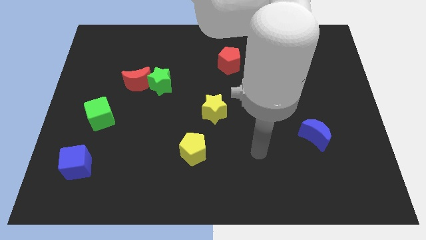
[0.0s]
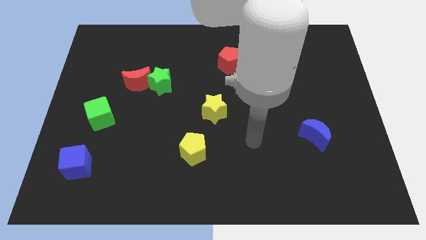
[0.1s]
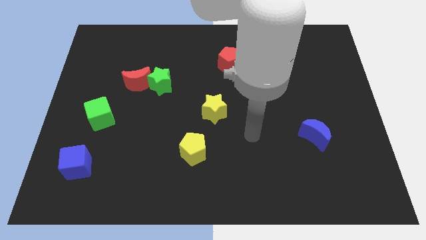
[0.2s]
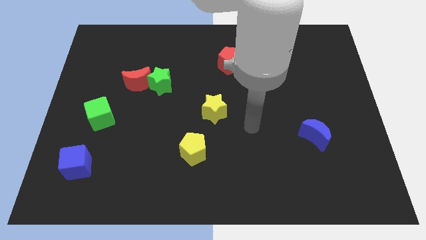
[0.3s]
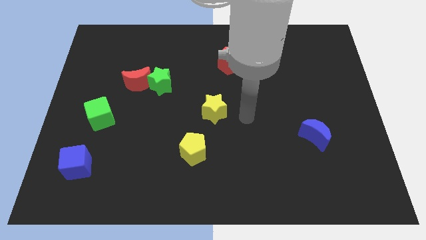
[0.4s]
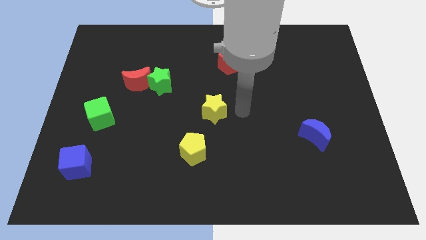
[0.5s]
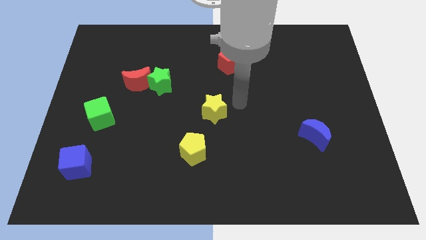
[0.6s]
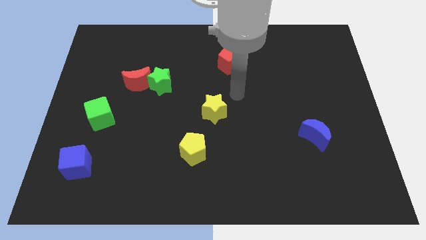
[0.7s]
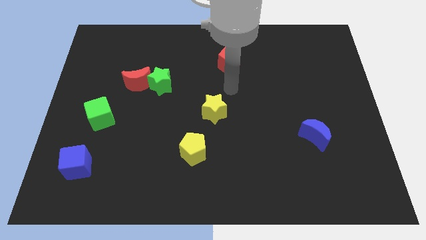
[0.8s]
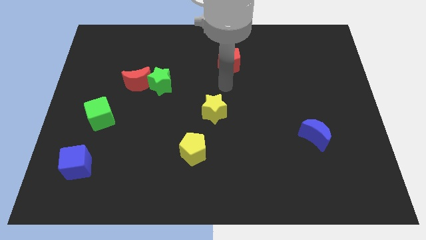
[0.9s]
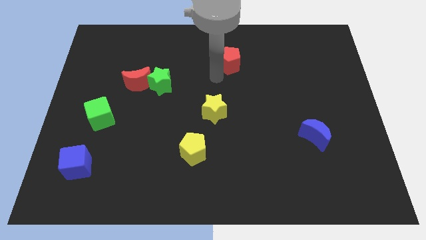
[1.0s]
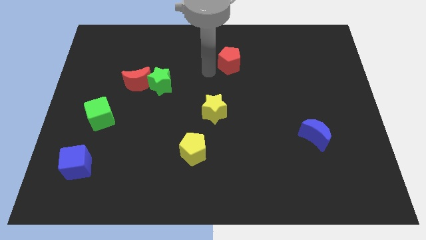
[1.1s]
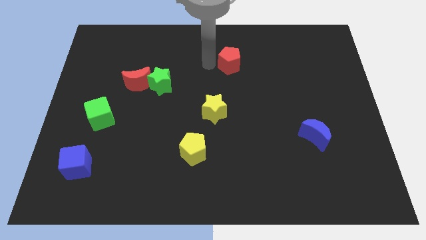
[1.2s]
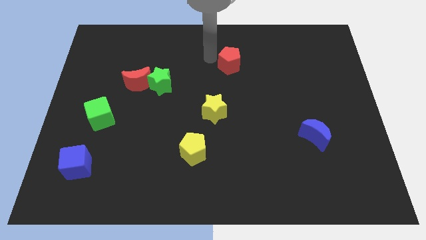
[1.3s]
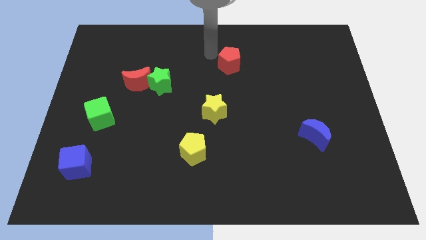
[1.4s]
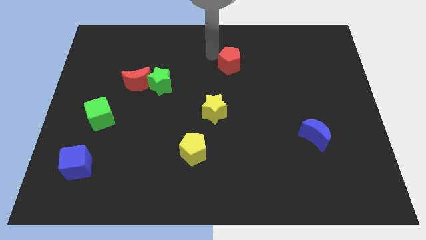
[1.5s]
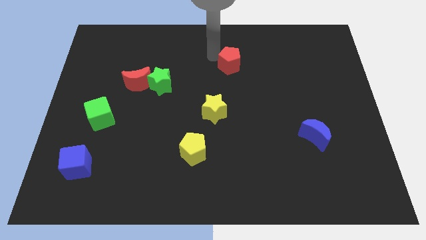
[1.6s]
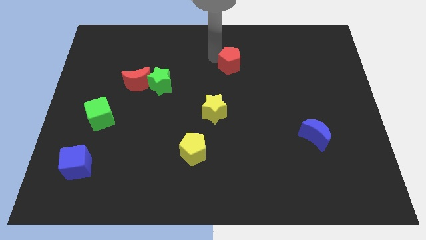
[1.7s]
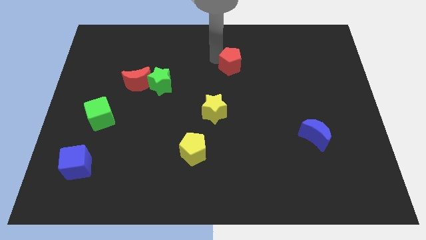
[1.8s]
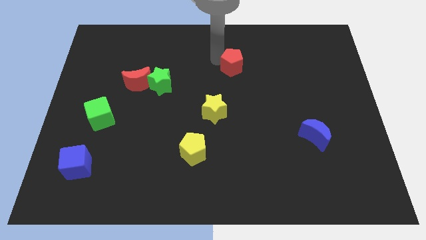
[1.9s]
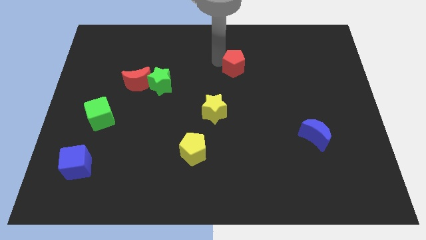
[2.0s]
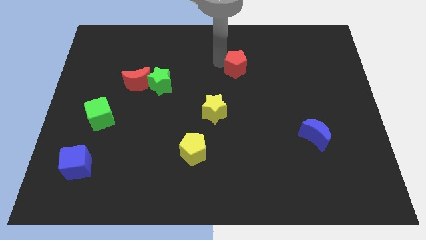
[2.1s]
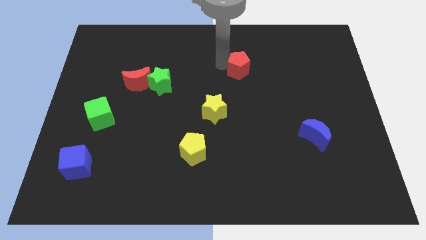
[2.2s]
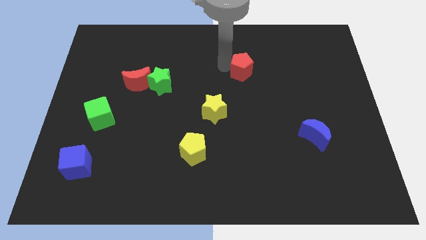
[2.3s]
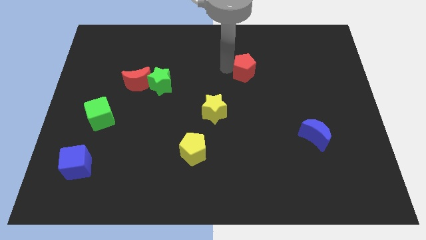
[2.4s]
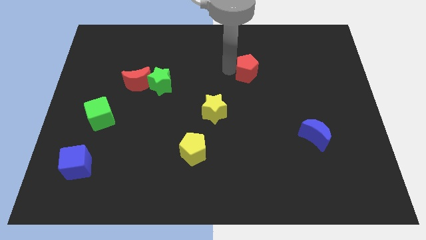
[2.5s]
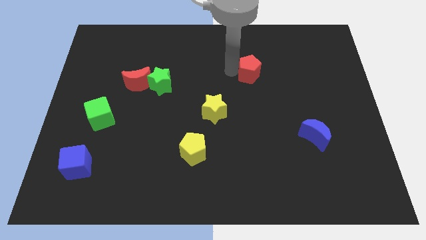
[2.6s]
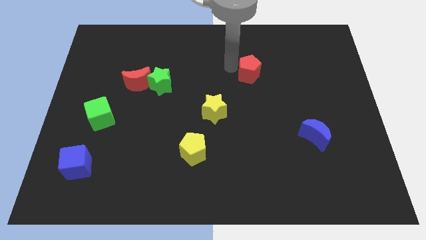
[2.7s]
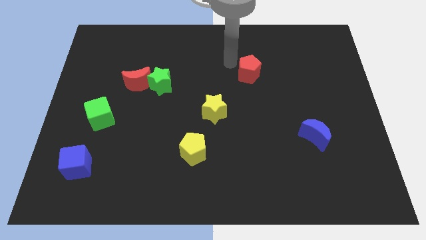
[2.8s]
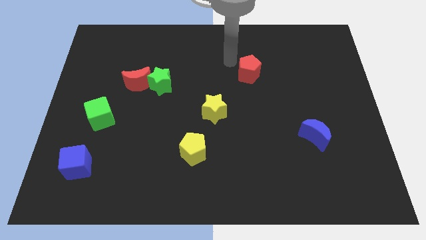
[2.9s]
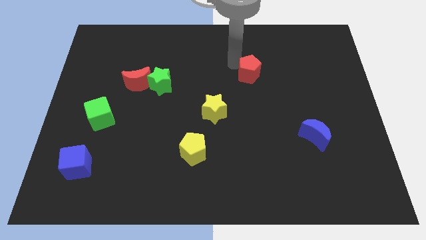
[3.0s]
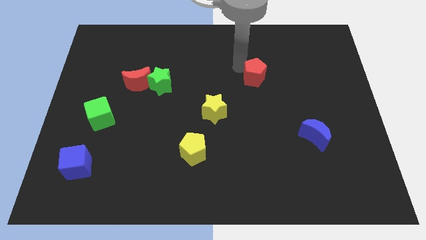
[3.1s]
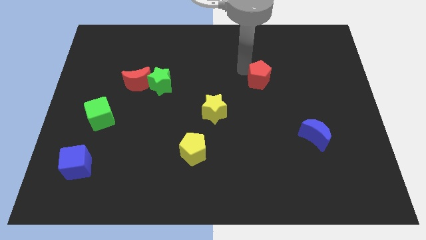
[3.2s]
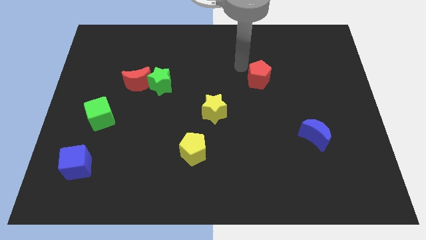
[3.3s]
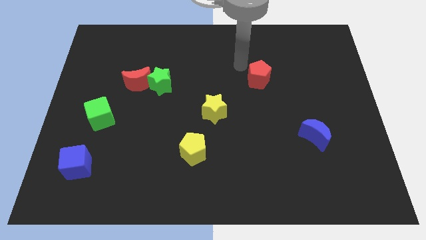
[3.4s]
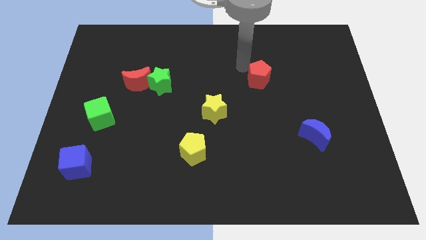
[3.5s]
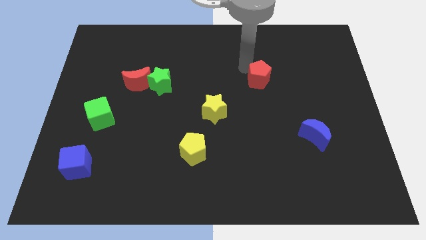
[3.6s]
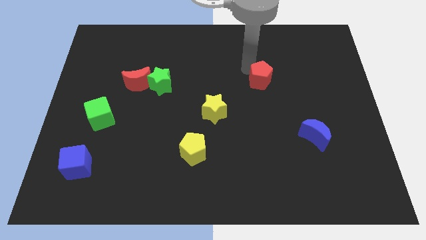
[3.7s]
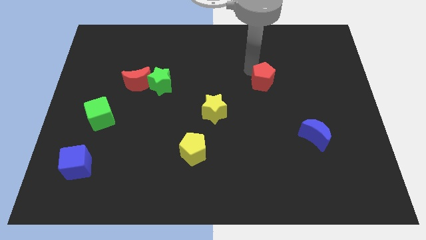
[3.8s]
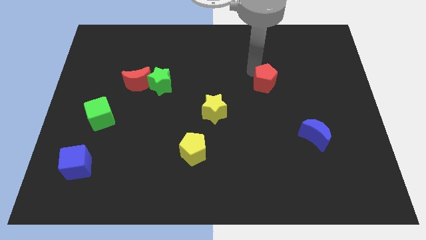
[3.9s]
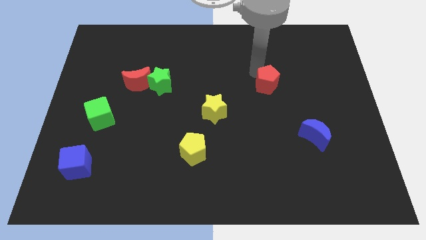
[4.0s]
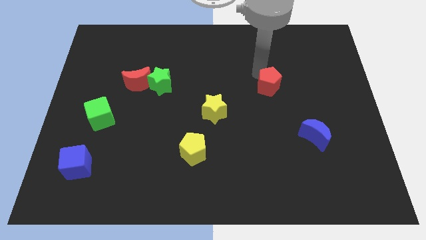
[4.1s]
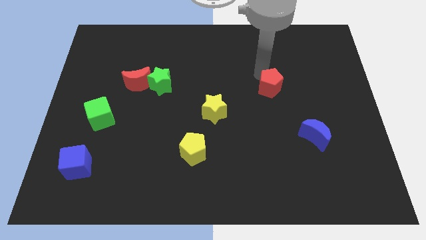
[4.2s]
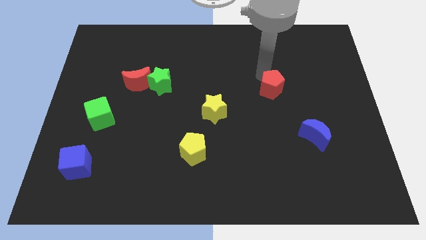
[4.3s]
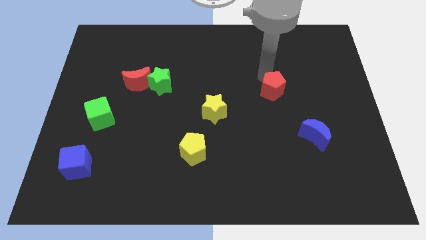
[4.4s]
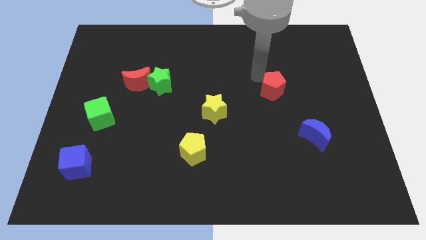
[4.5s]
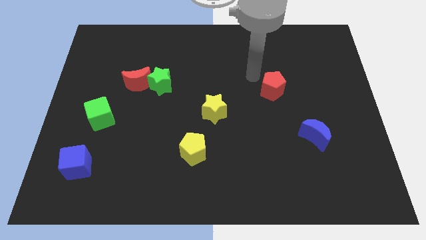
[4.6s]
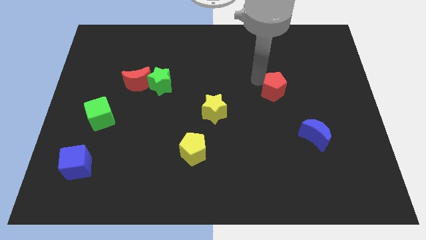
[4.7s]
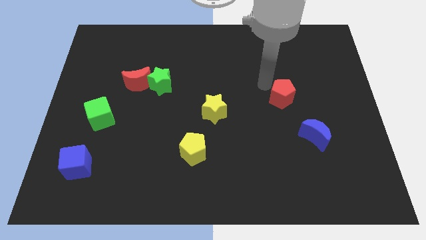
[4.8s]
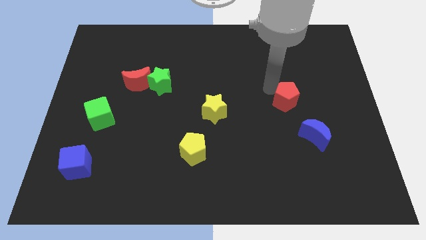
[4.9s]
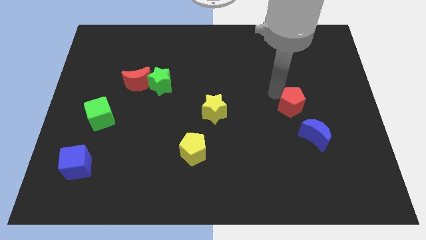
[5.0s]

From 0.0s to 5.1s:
move the red pentagon down and then right

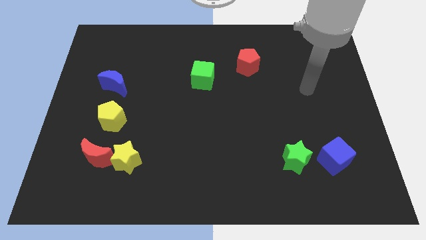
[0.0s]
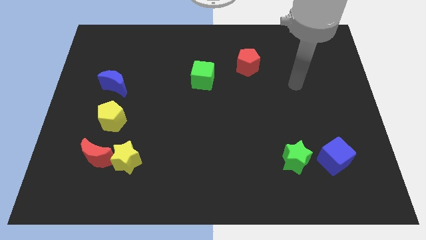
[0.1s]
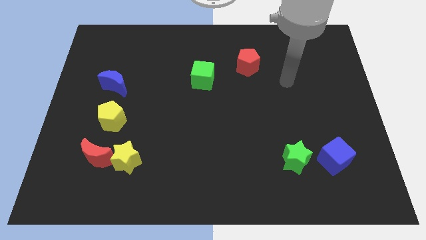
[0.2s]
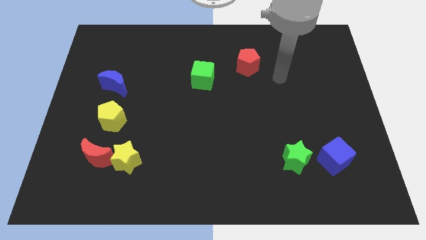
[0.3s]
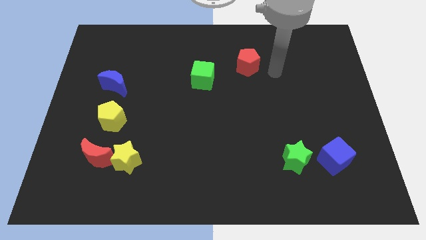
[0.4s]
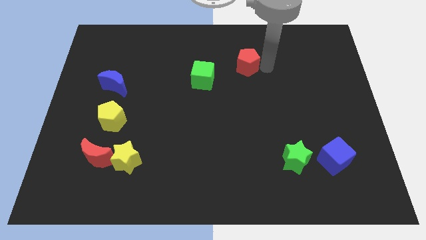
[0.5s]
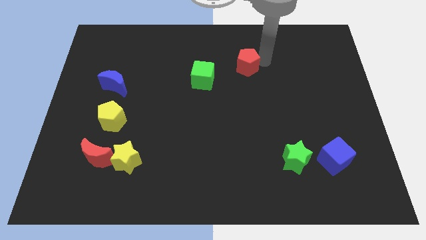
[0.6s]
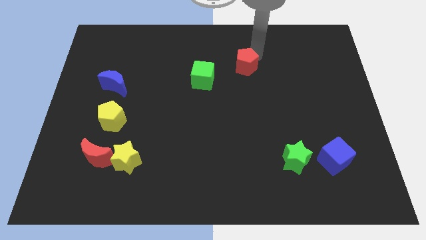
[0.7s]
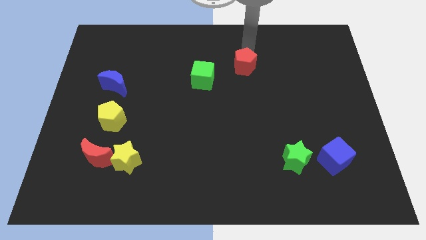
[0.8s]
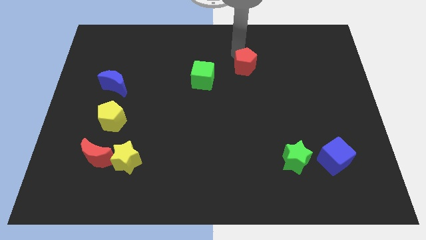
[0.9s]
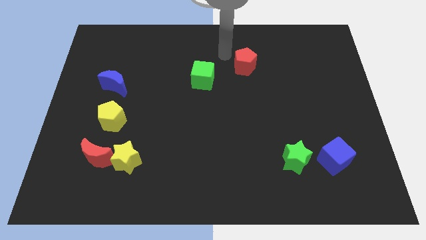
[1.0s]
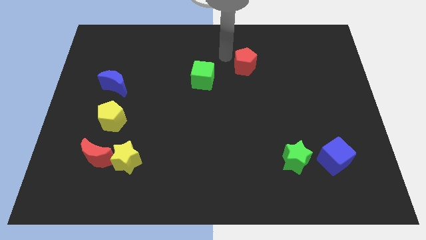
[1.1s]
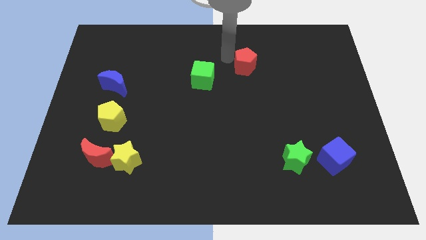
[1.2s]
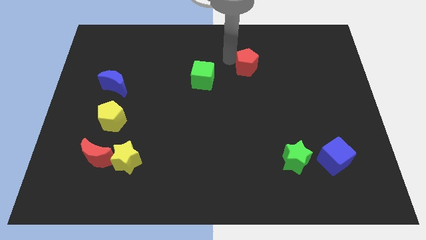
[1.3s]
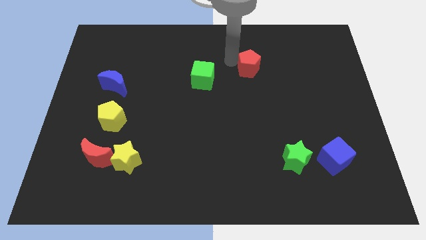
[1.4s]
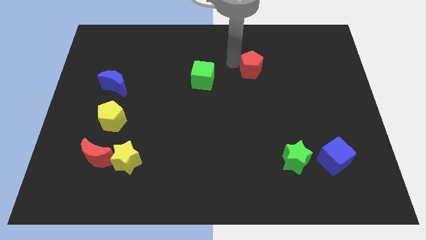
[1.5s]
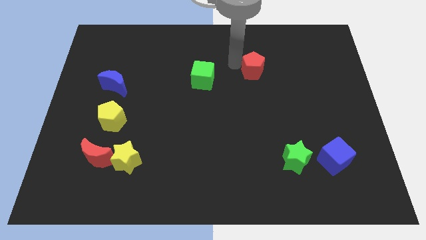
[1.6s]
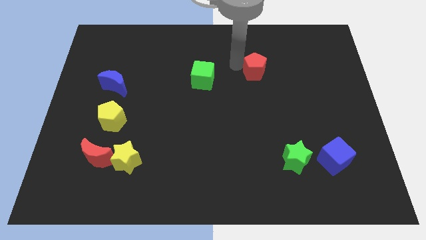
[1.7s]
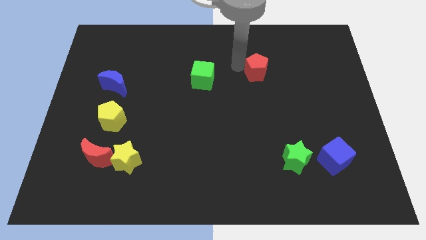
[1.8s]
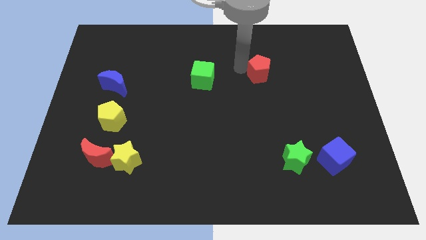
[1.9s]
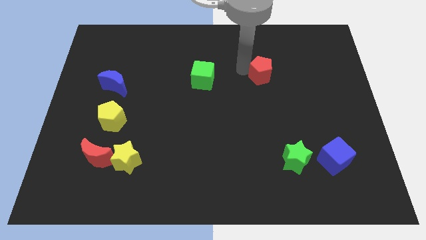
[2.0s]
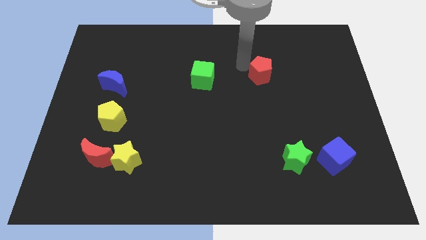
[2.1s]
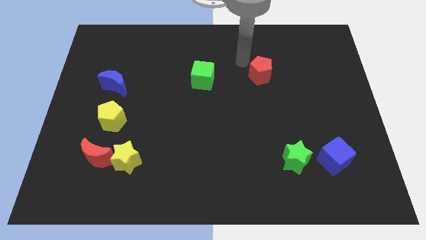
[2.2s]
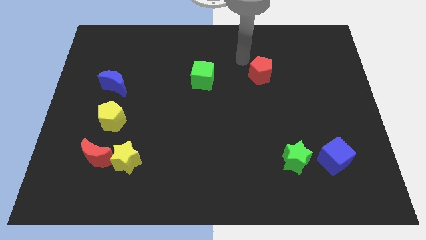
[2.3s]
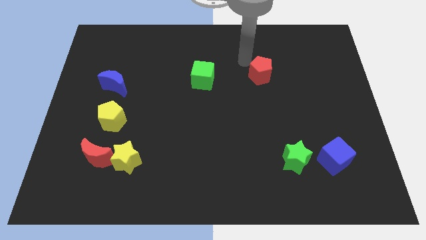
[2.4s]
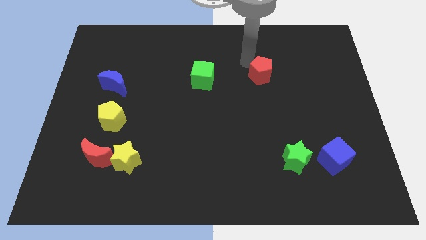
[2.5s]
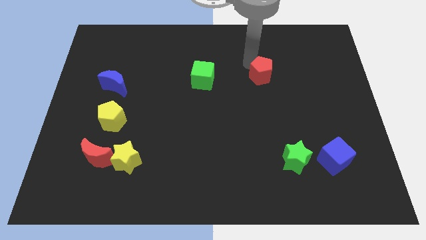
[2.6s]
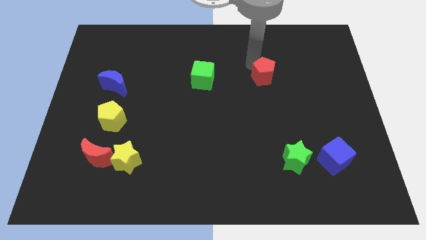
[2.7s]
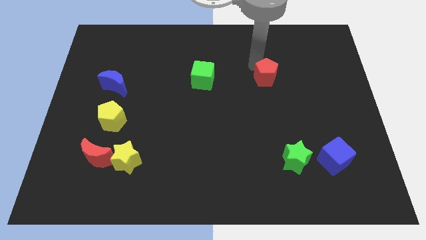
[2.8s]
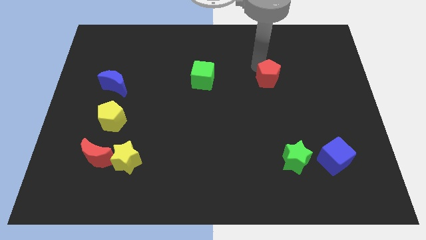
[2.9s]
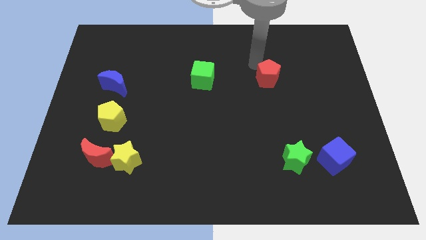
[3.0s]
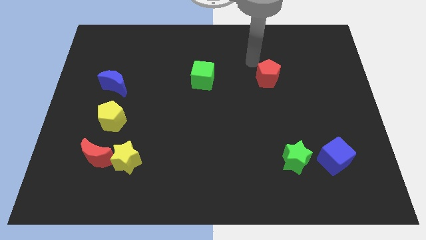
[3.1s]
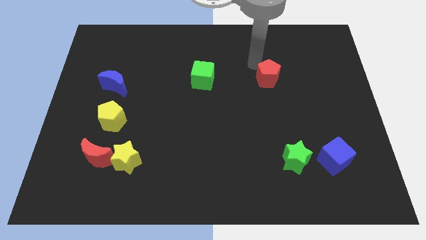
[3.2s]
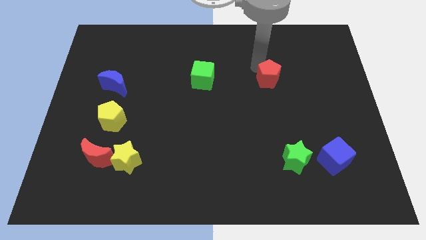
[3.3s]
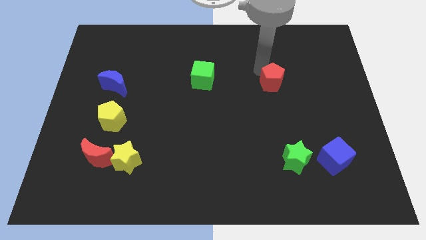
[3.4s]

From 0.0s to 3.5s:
push the red pentagon downwards and right diagonally a bit

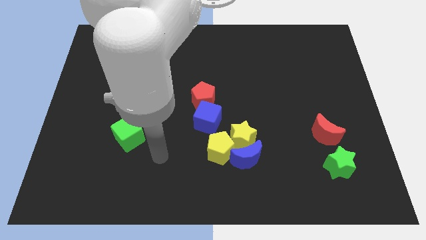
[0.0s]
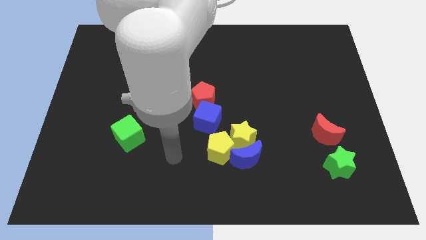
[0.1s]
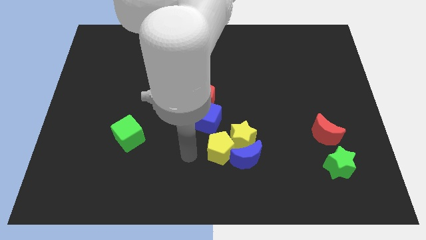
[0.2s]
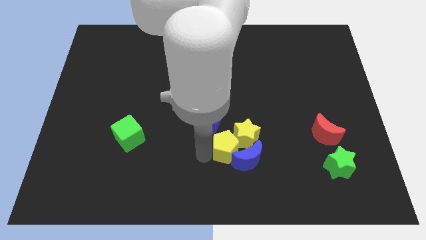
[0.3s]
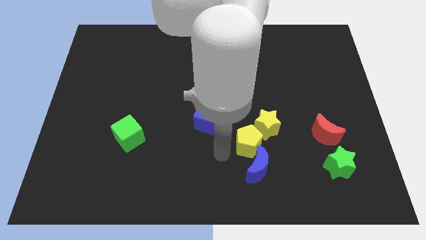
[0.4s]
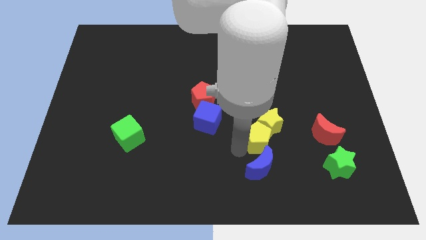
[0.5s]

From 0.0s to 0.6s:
push the yellow star somewhat up and then right
